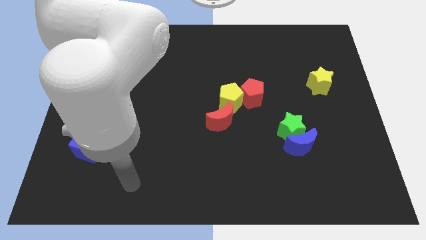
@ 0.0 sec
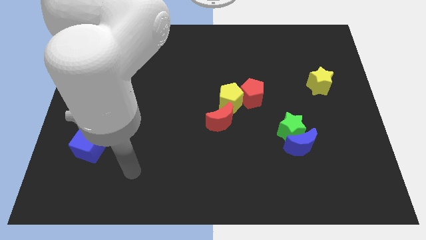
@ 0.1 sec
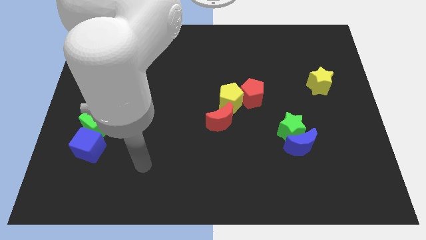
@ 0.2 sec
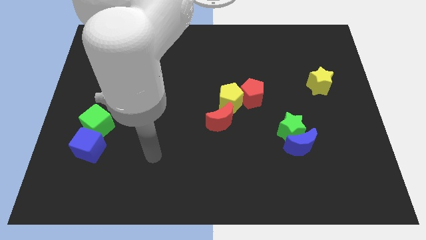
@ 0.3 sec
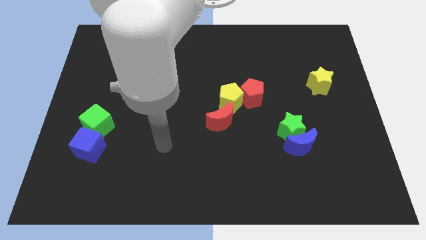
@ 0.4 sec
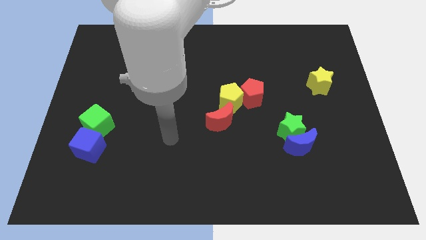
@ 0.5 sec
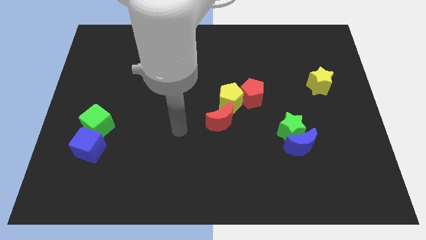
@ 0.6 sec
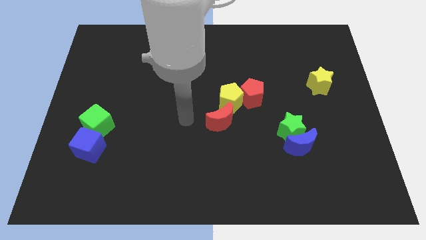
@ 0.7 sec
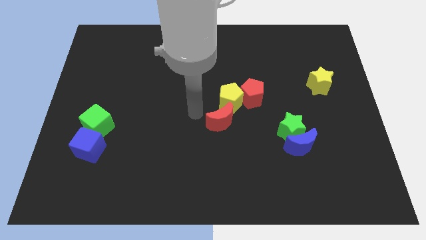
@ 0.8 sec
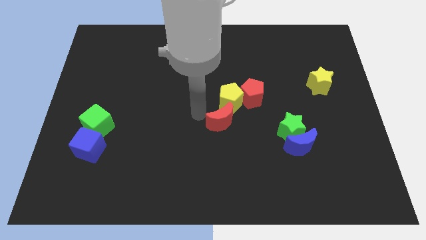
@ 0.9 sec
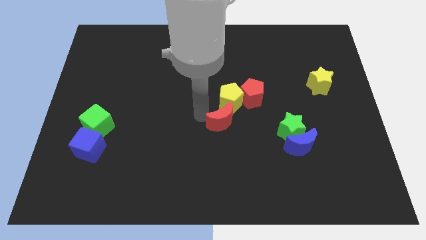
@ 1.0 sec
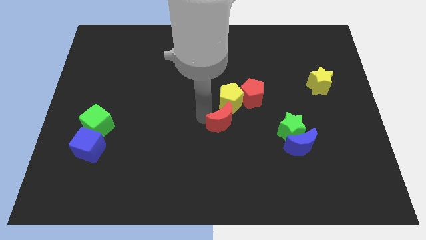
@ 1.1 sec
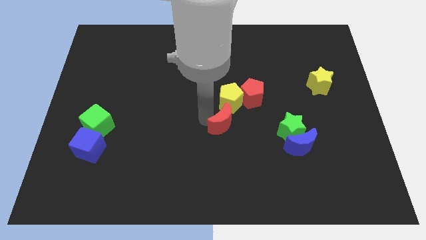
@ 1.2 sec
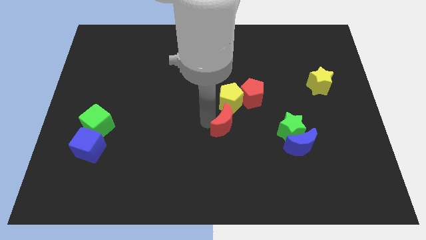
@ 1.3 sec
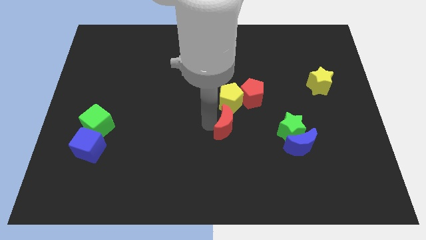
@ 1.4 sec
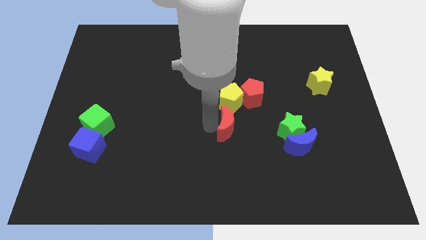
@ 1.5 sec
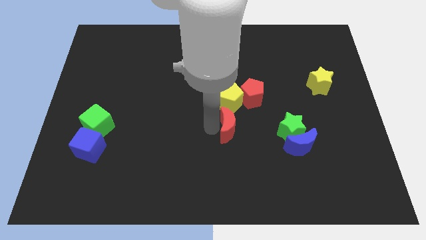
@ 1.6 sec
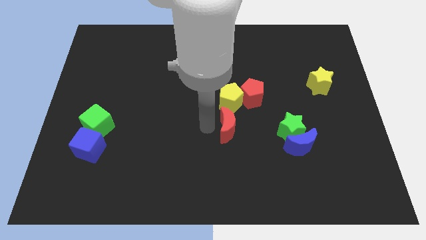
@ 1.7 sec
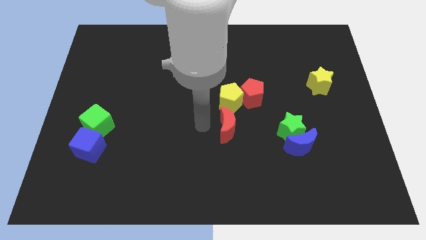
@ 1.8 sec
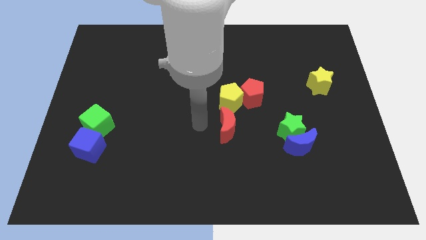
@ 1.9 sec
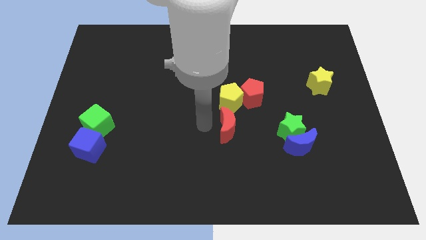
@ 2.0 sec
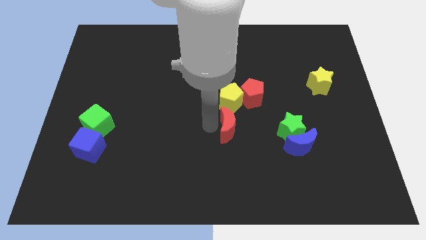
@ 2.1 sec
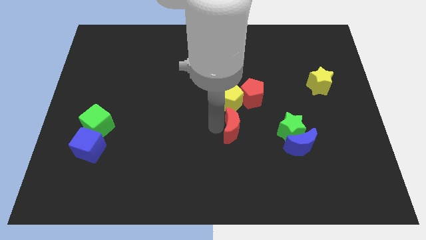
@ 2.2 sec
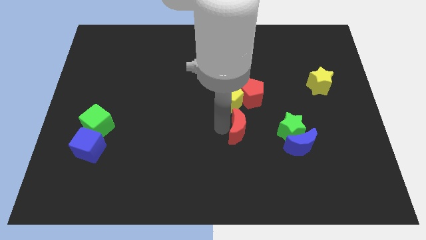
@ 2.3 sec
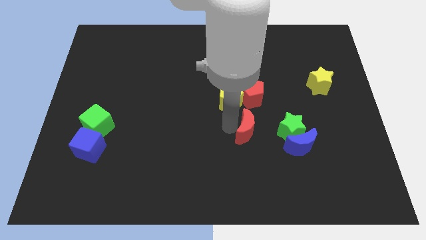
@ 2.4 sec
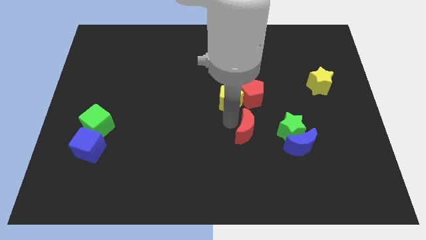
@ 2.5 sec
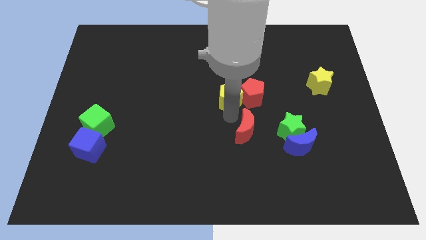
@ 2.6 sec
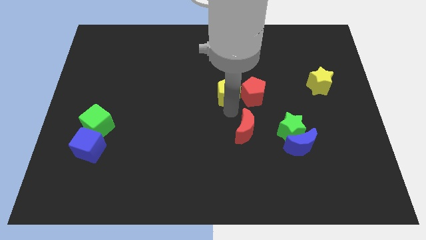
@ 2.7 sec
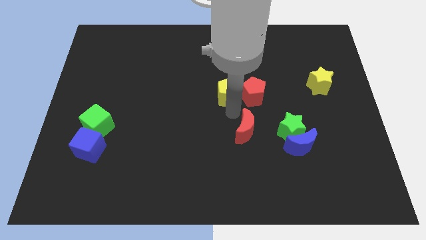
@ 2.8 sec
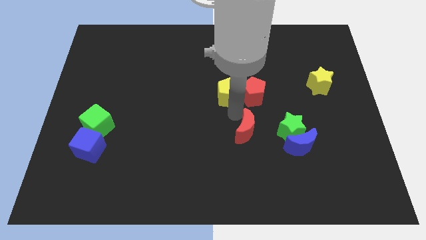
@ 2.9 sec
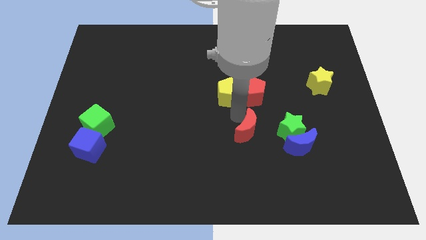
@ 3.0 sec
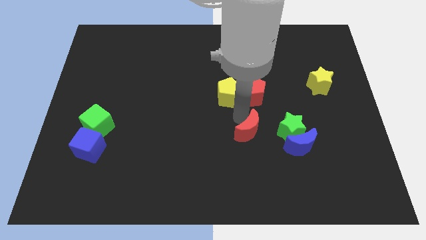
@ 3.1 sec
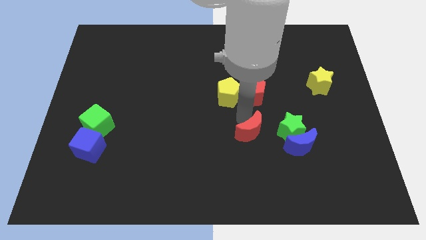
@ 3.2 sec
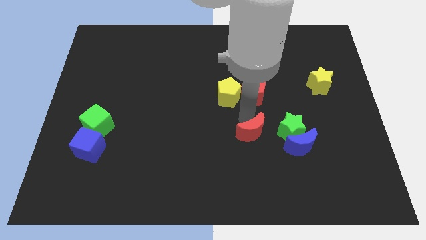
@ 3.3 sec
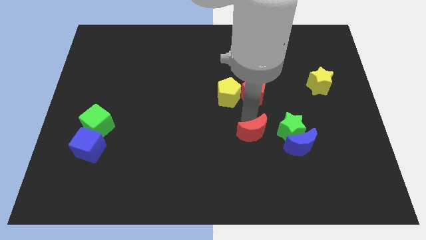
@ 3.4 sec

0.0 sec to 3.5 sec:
move the red moon downwards and then to the right a bit

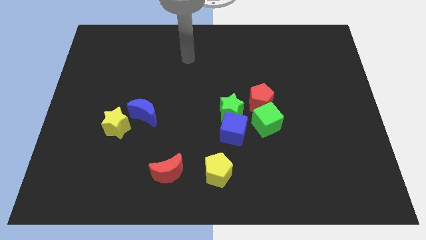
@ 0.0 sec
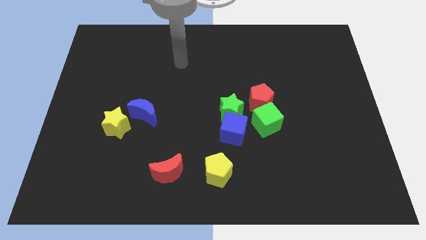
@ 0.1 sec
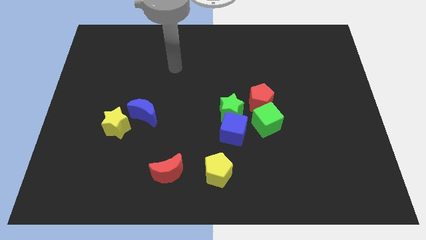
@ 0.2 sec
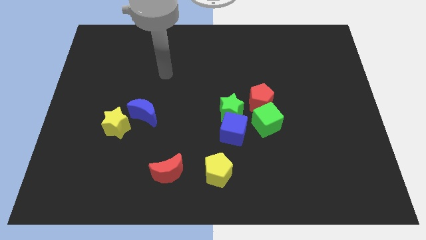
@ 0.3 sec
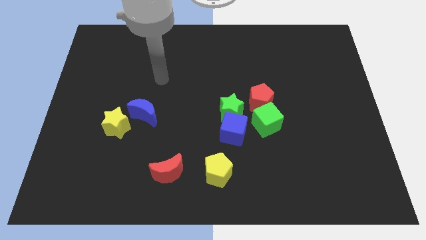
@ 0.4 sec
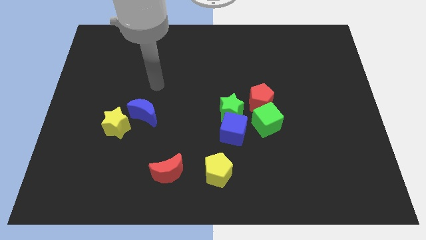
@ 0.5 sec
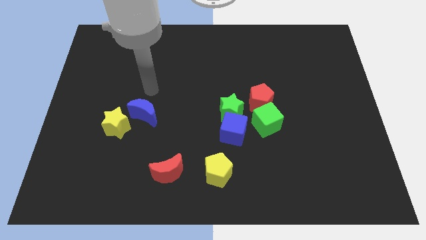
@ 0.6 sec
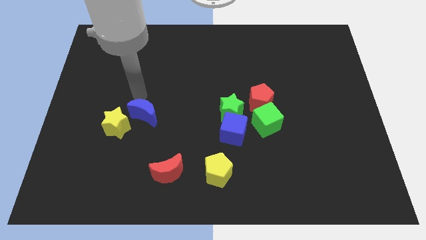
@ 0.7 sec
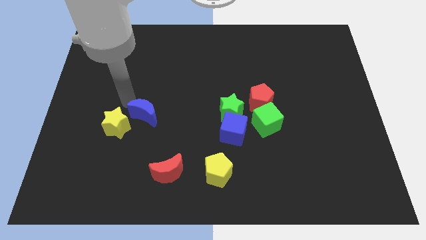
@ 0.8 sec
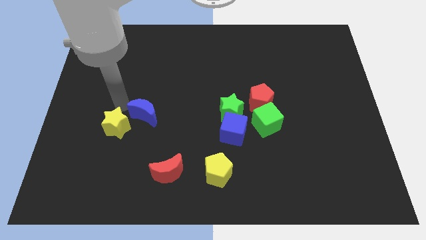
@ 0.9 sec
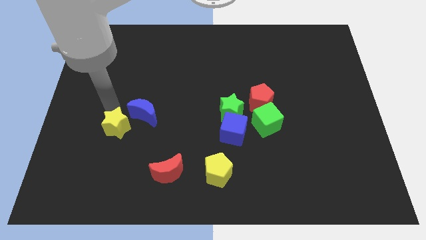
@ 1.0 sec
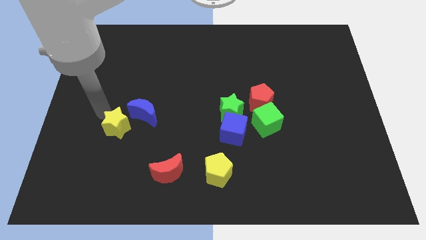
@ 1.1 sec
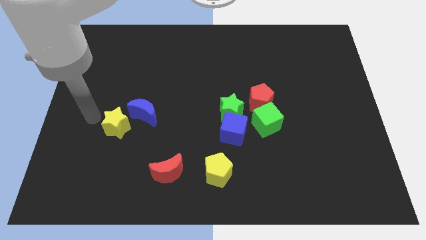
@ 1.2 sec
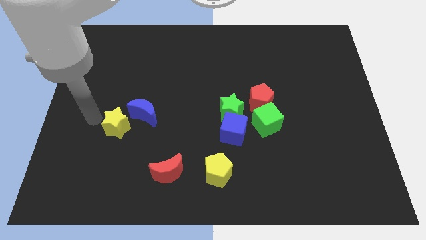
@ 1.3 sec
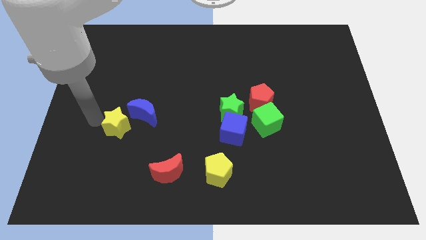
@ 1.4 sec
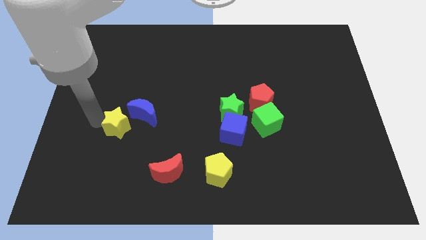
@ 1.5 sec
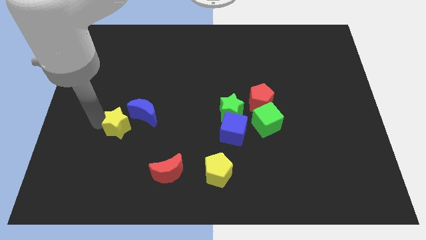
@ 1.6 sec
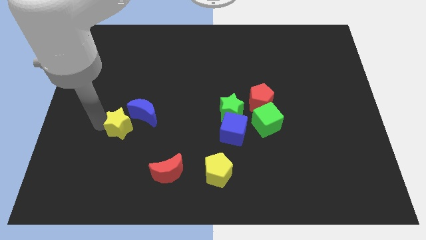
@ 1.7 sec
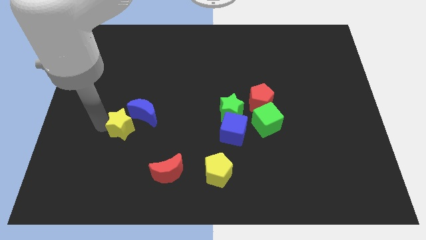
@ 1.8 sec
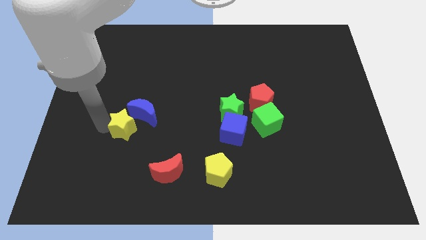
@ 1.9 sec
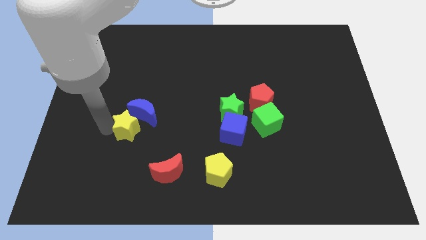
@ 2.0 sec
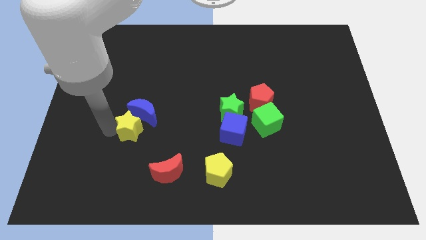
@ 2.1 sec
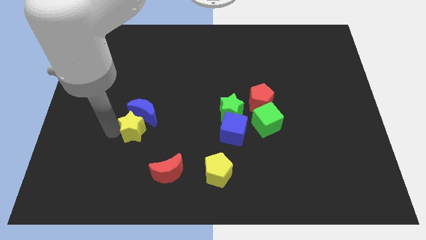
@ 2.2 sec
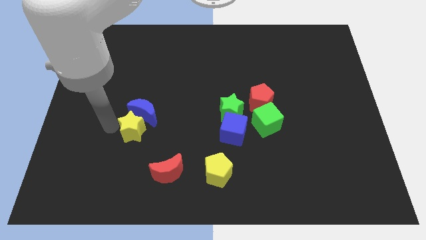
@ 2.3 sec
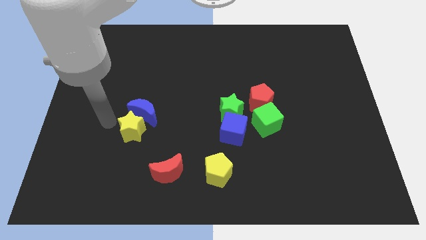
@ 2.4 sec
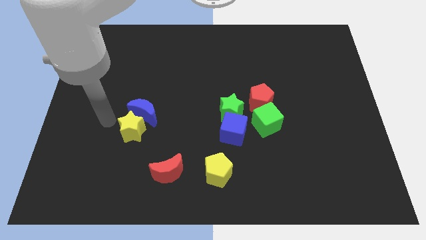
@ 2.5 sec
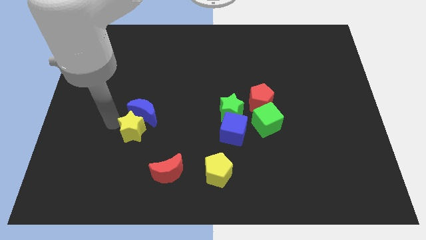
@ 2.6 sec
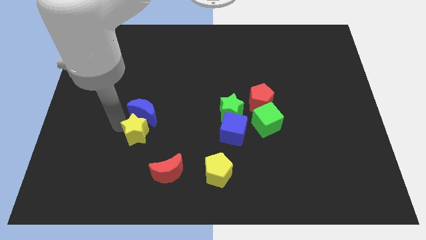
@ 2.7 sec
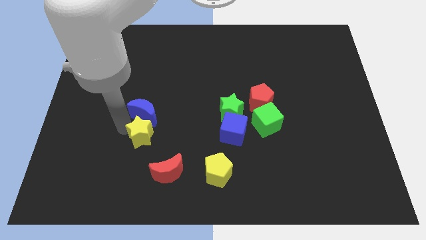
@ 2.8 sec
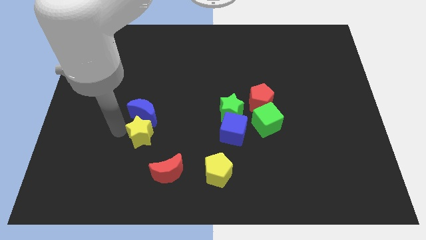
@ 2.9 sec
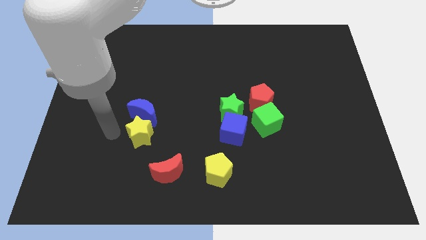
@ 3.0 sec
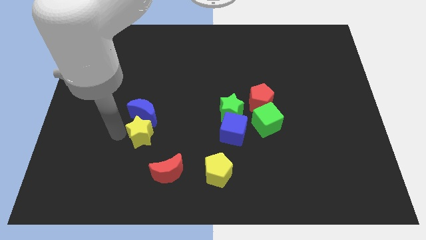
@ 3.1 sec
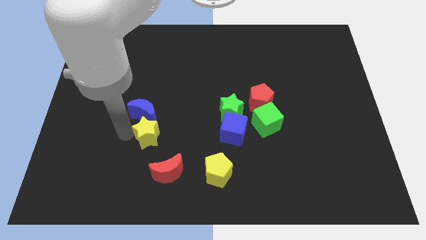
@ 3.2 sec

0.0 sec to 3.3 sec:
slightly push the yellow star to the right

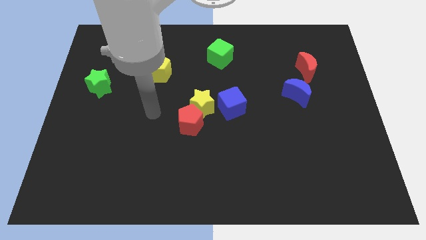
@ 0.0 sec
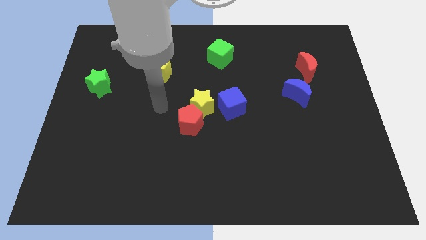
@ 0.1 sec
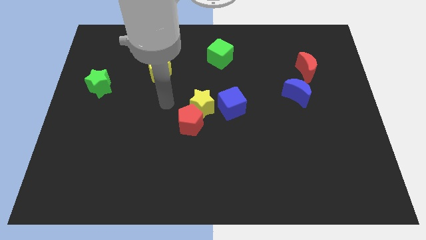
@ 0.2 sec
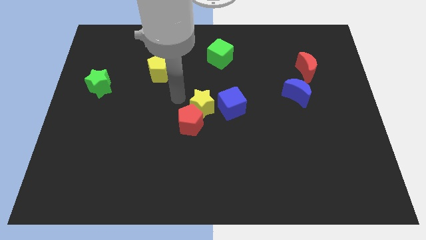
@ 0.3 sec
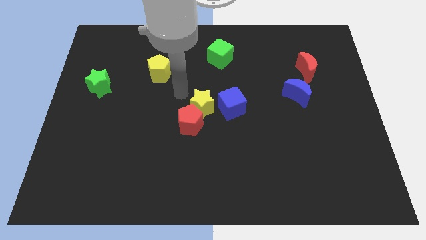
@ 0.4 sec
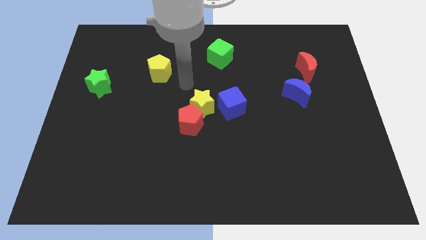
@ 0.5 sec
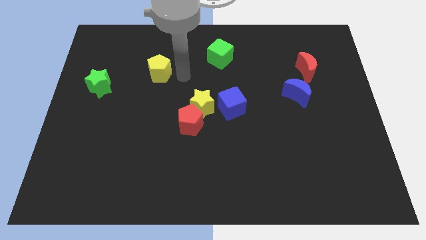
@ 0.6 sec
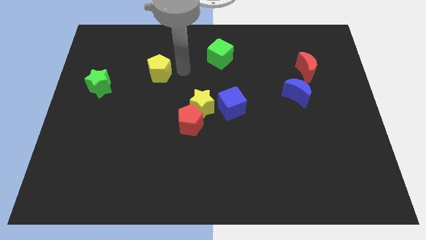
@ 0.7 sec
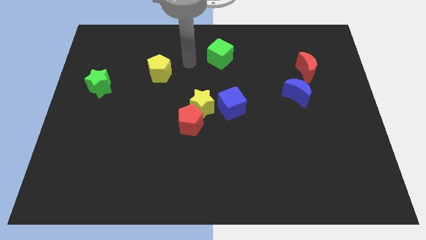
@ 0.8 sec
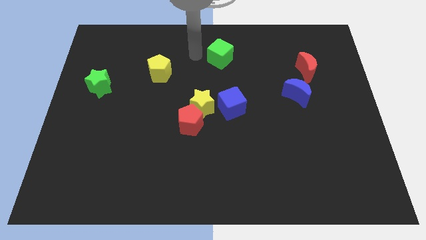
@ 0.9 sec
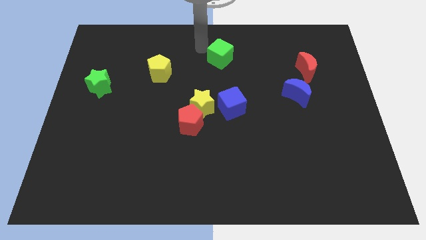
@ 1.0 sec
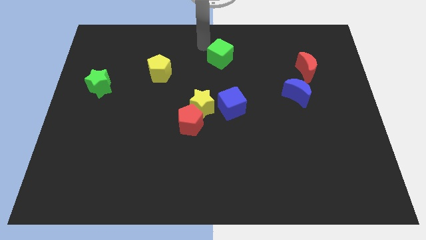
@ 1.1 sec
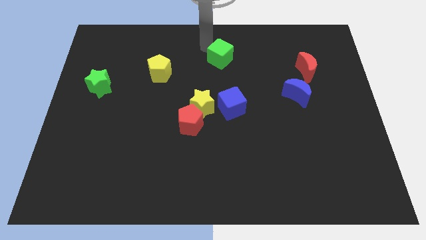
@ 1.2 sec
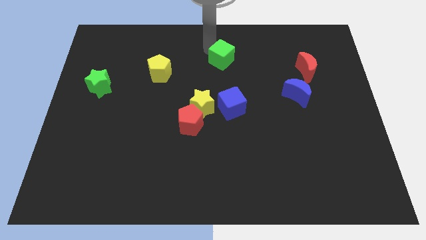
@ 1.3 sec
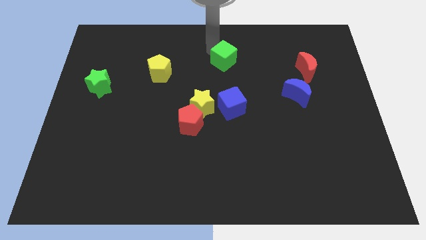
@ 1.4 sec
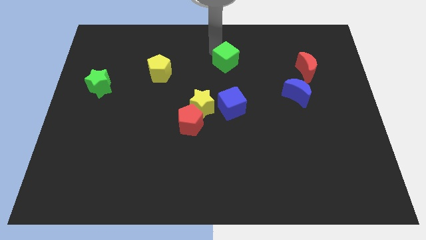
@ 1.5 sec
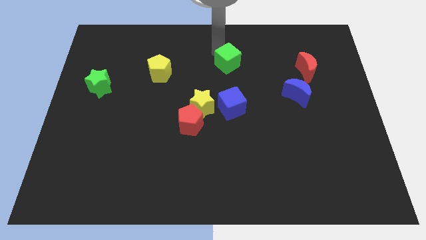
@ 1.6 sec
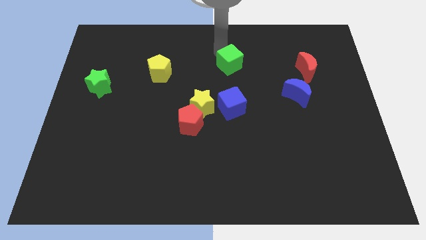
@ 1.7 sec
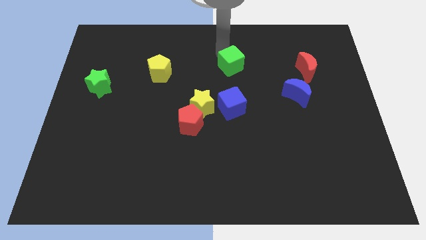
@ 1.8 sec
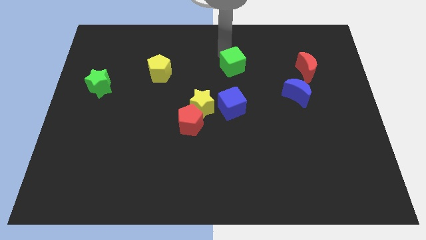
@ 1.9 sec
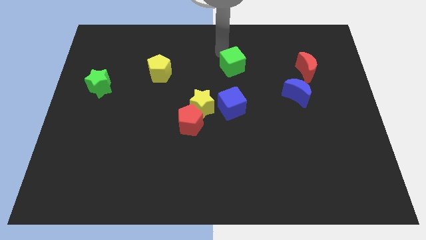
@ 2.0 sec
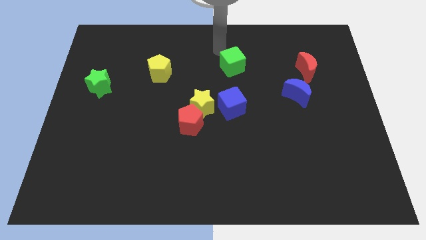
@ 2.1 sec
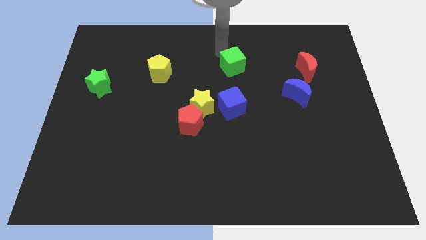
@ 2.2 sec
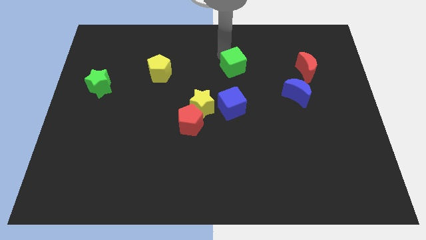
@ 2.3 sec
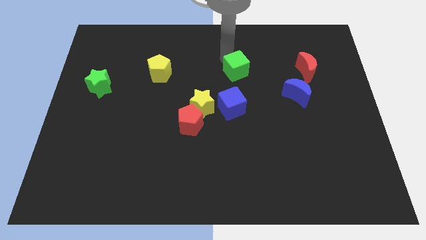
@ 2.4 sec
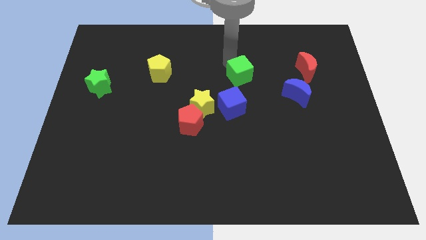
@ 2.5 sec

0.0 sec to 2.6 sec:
move the green cube downwards and right diagonally a little
